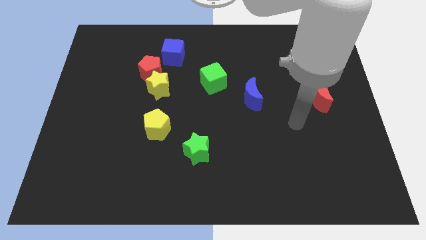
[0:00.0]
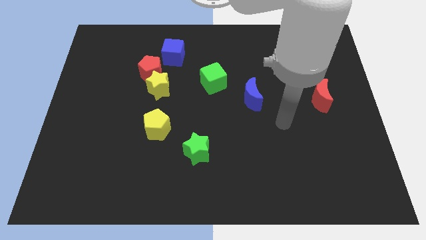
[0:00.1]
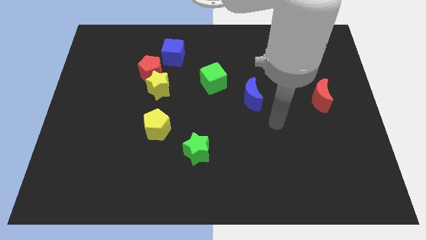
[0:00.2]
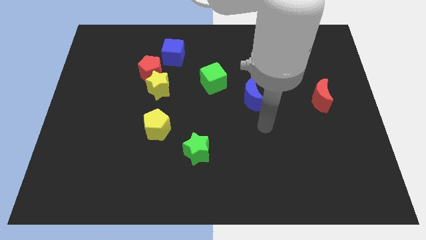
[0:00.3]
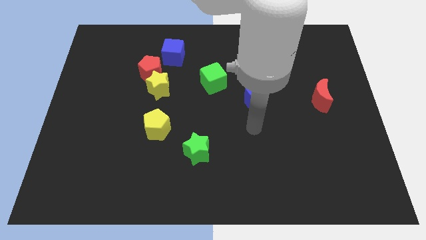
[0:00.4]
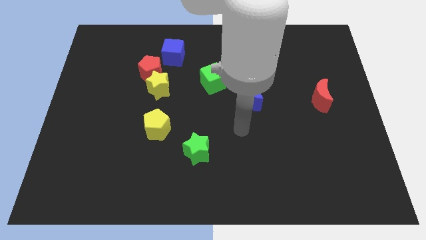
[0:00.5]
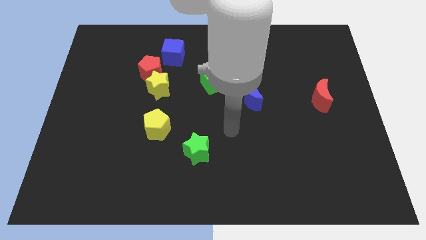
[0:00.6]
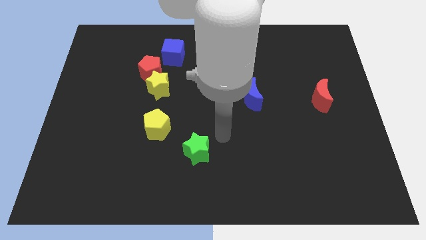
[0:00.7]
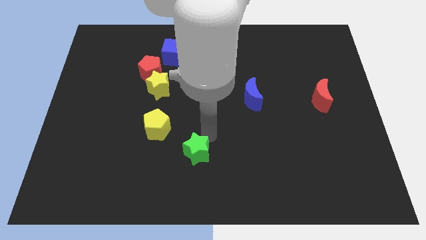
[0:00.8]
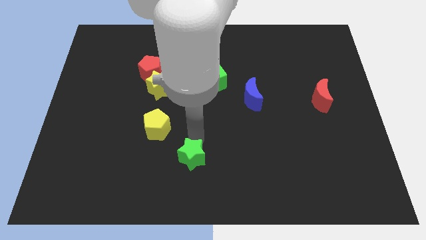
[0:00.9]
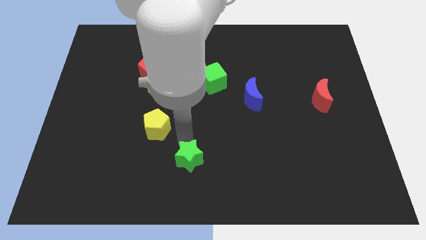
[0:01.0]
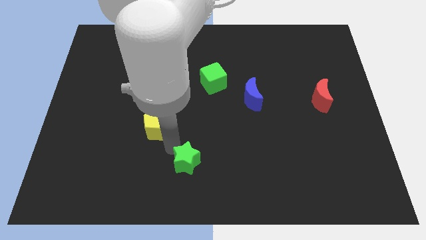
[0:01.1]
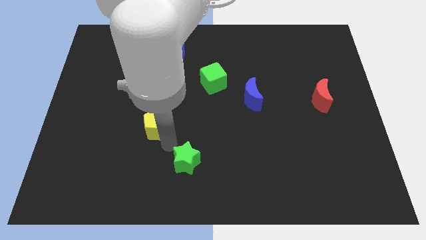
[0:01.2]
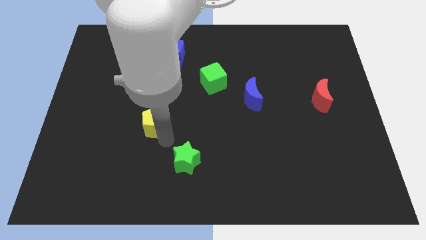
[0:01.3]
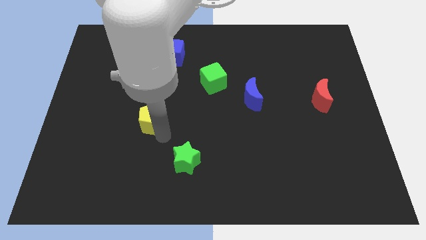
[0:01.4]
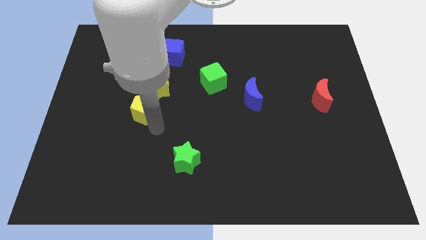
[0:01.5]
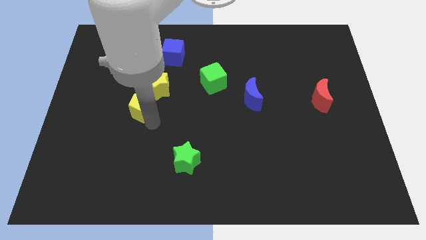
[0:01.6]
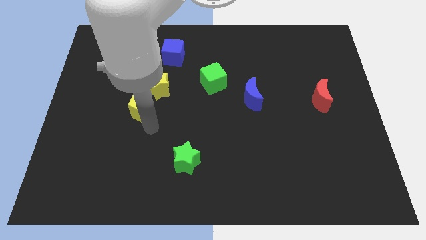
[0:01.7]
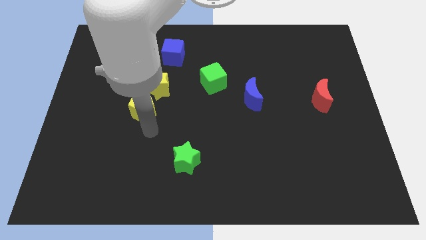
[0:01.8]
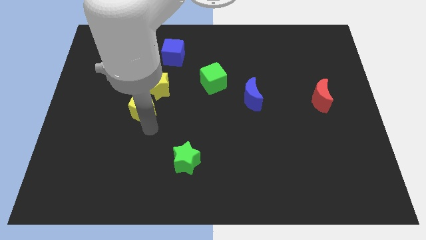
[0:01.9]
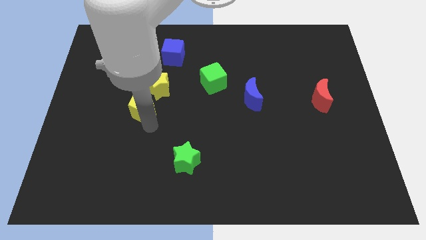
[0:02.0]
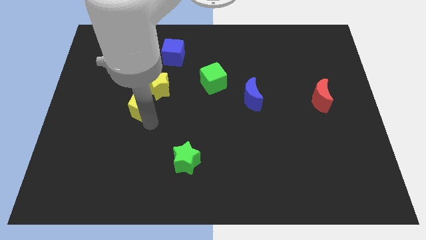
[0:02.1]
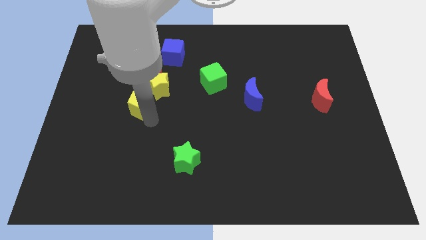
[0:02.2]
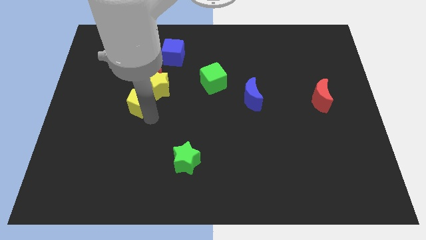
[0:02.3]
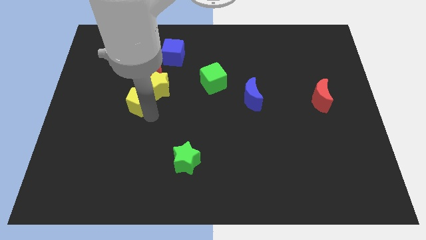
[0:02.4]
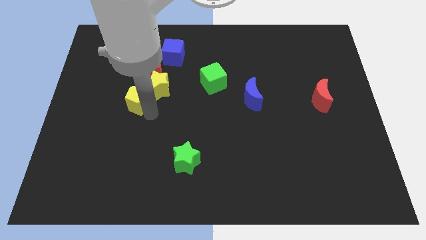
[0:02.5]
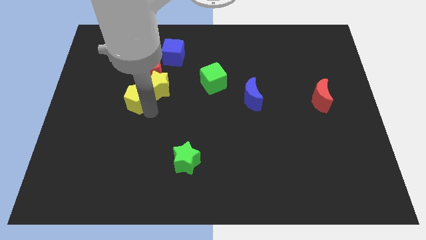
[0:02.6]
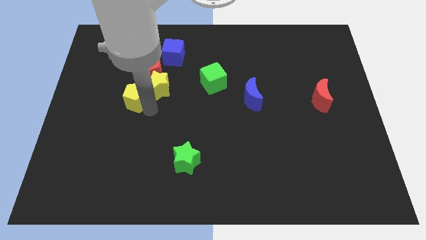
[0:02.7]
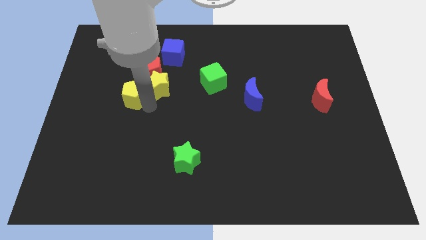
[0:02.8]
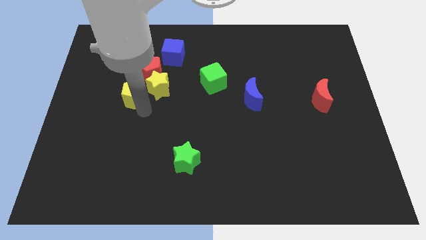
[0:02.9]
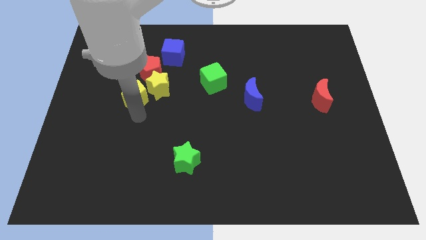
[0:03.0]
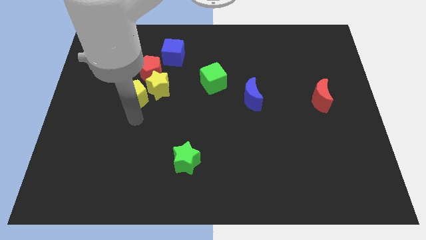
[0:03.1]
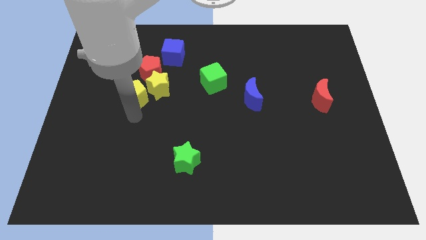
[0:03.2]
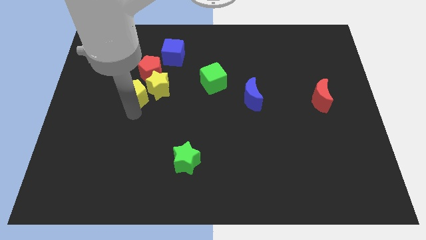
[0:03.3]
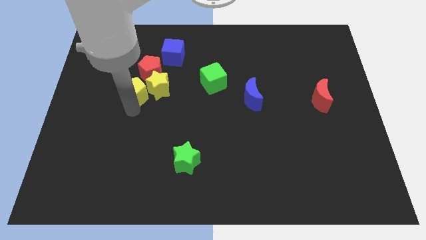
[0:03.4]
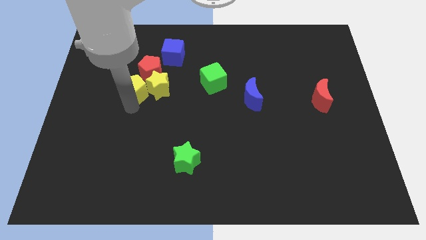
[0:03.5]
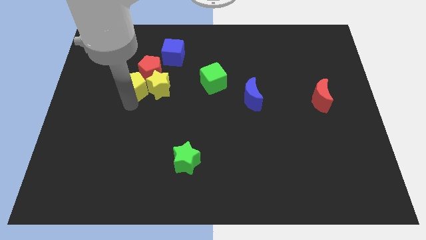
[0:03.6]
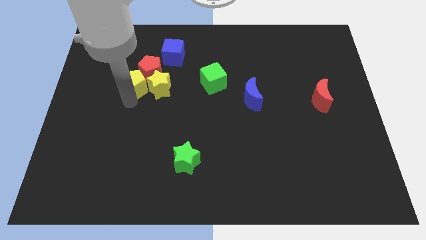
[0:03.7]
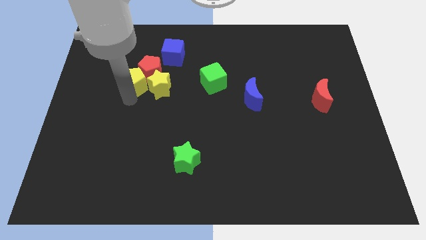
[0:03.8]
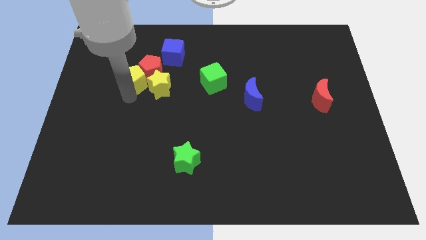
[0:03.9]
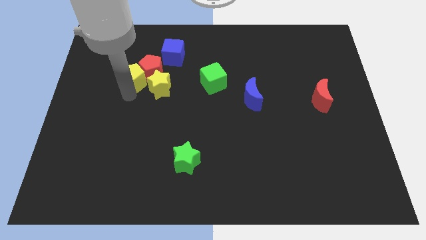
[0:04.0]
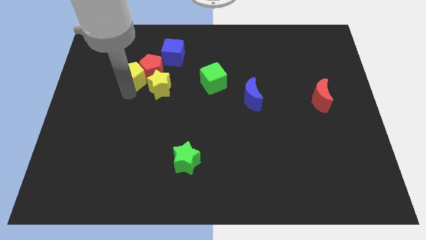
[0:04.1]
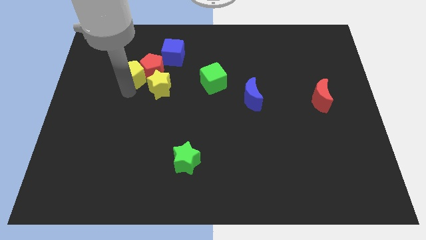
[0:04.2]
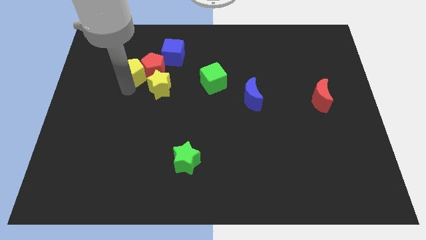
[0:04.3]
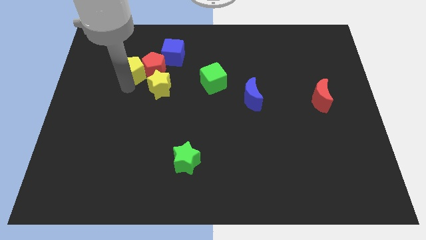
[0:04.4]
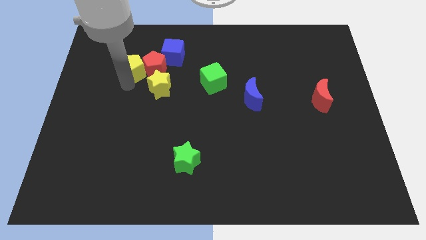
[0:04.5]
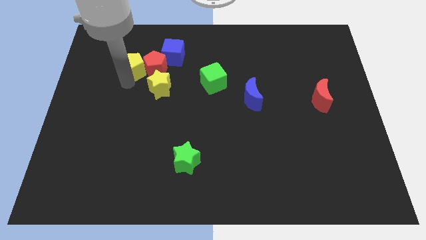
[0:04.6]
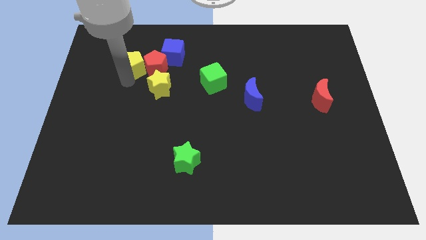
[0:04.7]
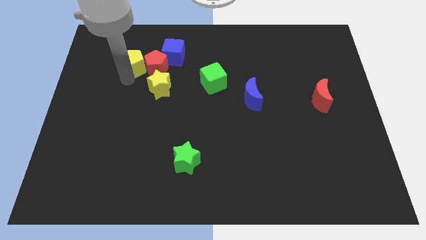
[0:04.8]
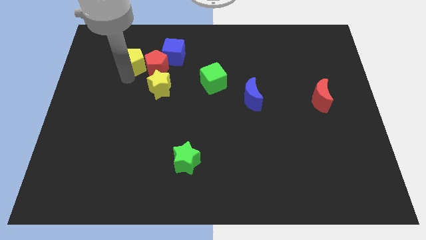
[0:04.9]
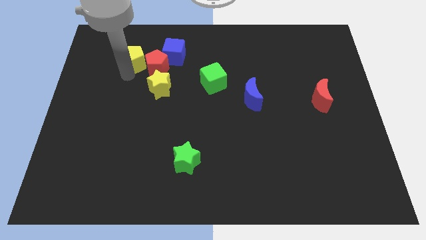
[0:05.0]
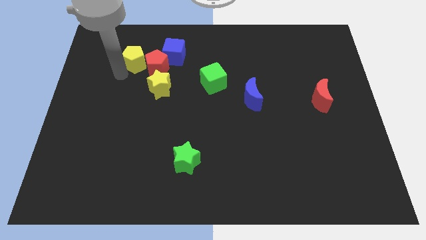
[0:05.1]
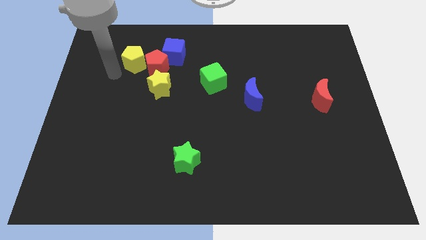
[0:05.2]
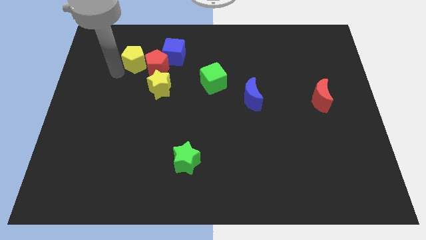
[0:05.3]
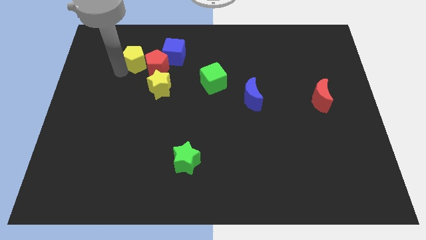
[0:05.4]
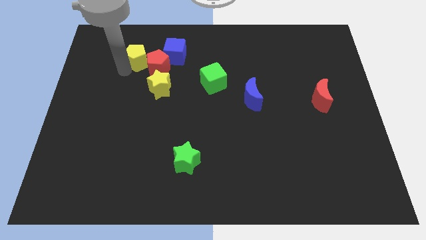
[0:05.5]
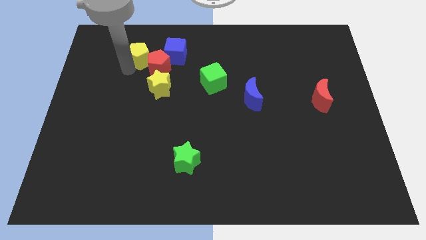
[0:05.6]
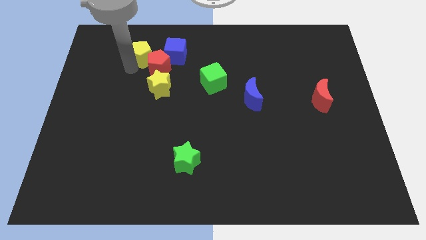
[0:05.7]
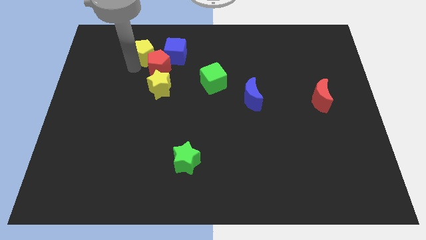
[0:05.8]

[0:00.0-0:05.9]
move the yellow pentagon to the top side of the yellow star

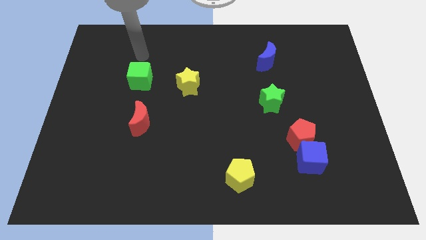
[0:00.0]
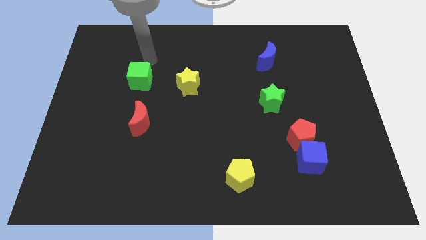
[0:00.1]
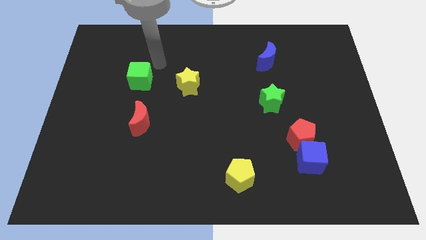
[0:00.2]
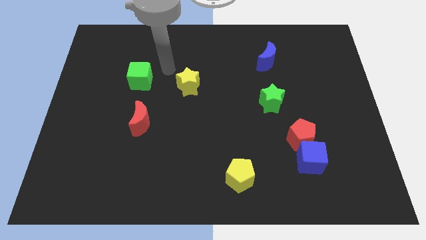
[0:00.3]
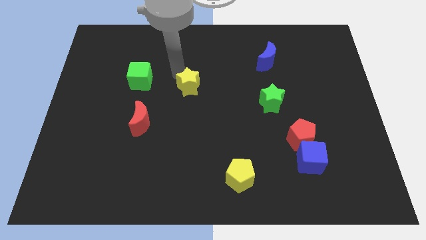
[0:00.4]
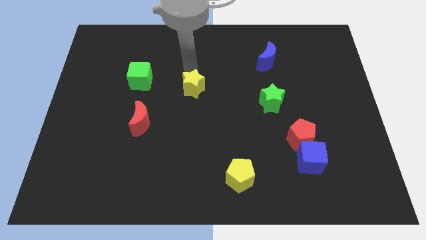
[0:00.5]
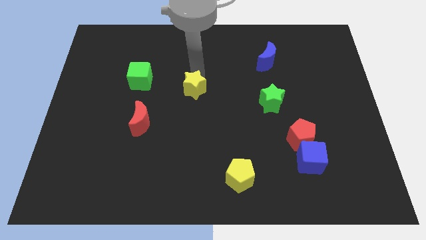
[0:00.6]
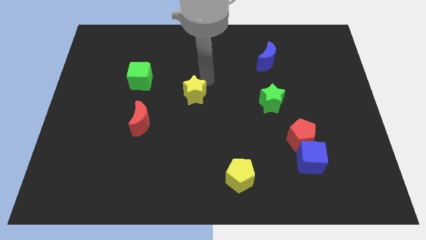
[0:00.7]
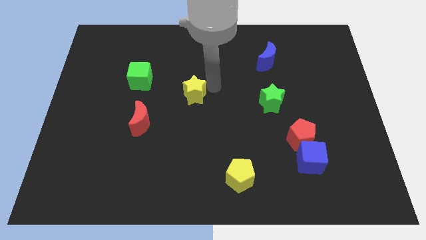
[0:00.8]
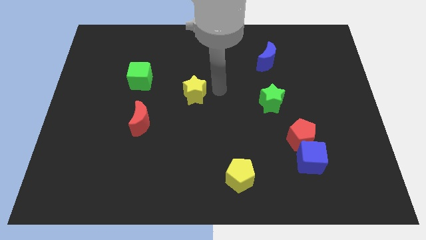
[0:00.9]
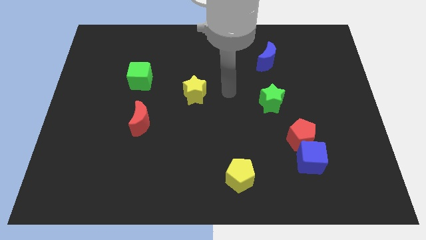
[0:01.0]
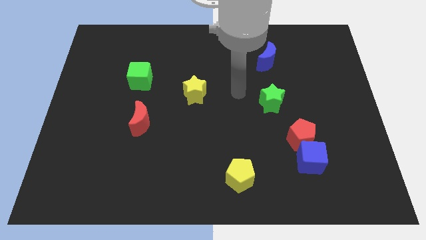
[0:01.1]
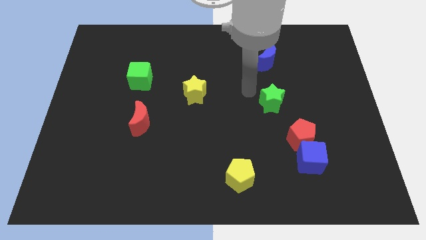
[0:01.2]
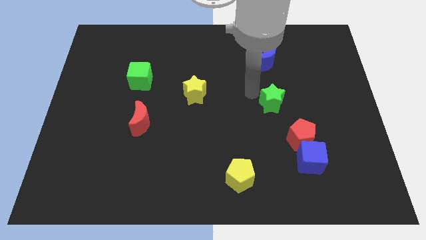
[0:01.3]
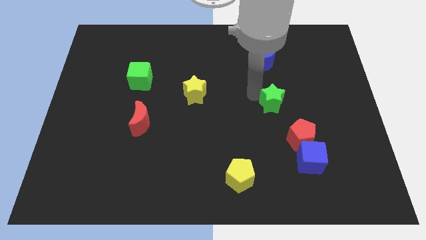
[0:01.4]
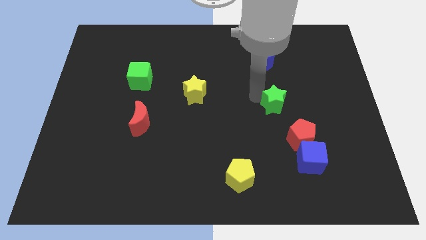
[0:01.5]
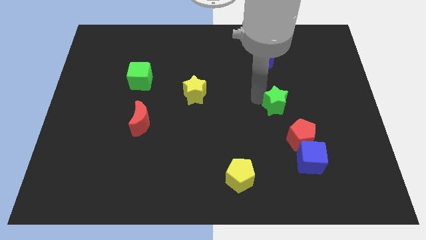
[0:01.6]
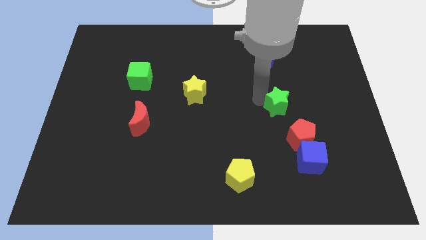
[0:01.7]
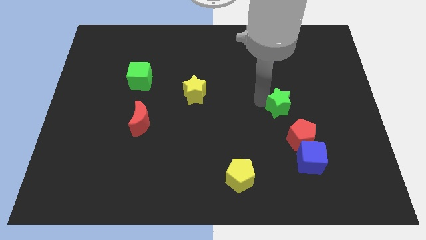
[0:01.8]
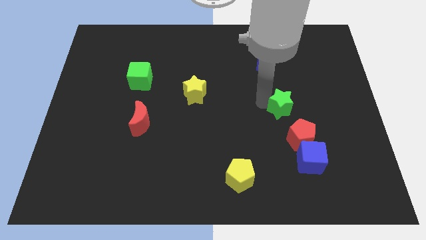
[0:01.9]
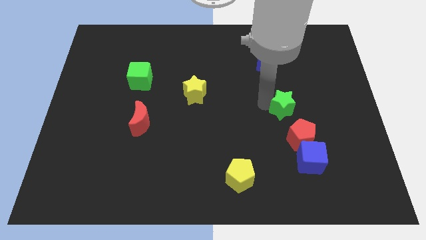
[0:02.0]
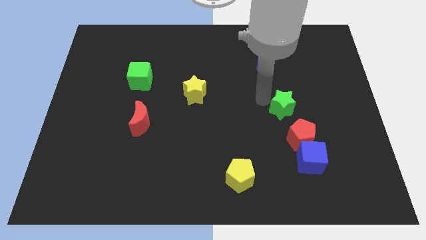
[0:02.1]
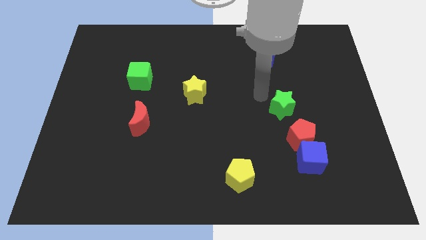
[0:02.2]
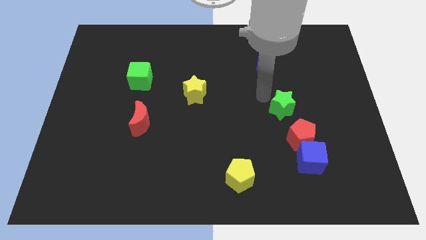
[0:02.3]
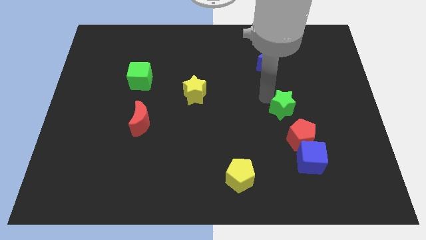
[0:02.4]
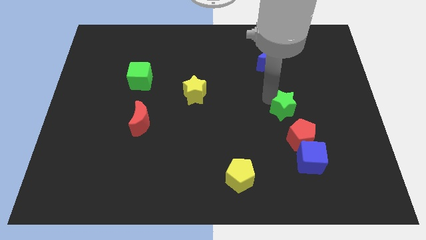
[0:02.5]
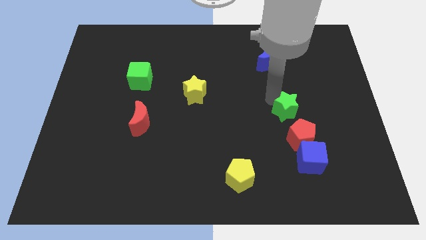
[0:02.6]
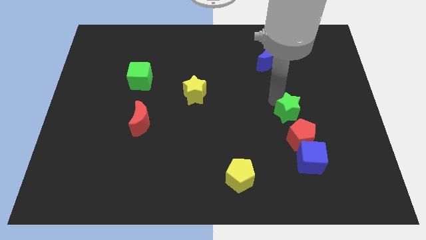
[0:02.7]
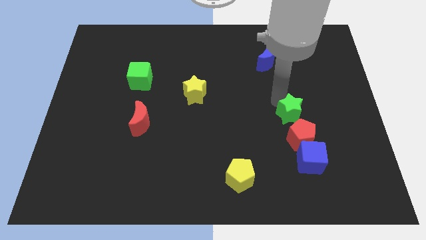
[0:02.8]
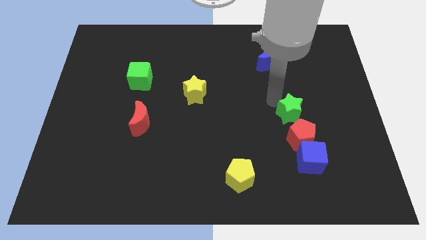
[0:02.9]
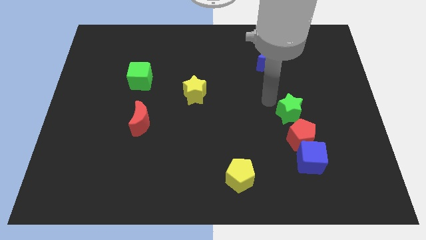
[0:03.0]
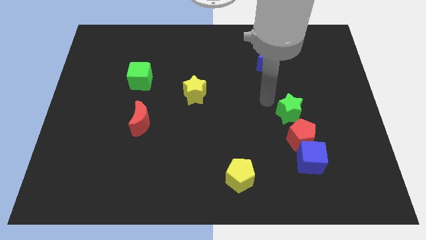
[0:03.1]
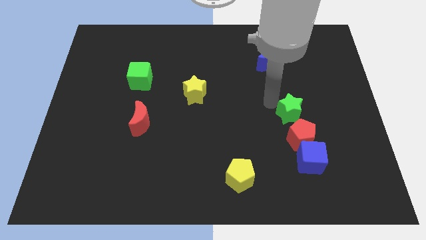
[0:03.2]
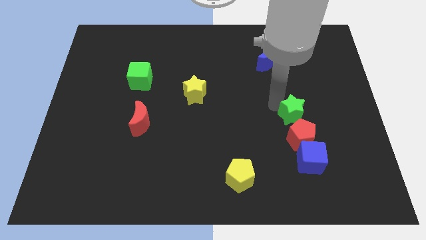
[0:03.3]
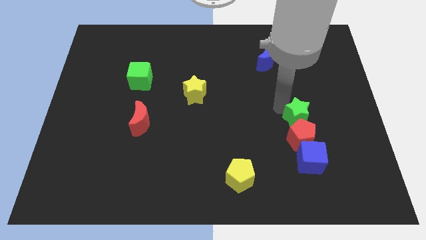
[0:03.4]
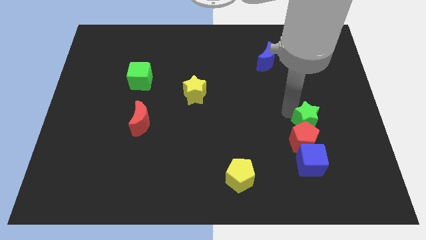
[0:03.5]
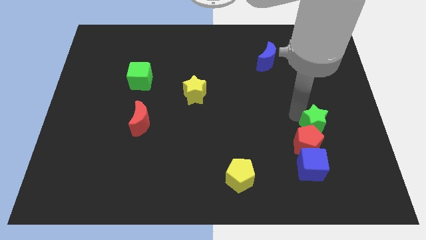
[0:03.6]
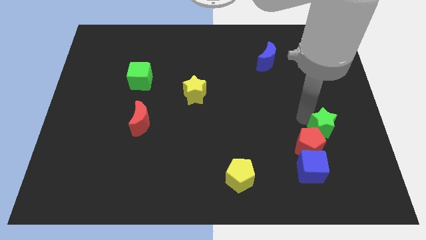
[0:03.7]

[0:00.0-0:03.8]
move the green star to the top right of the blue cube
